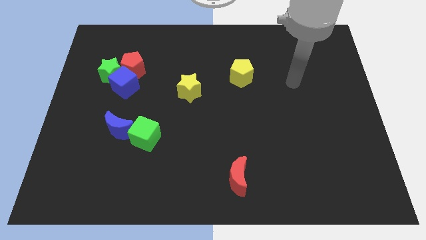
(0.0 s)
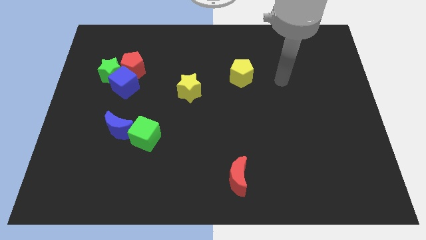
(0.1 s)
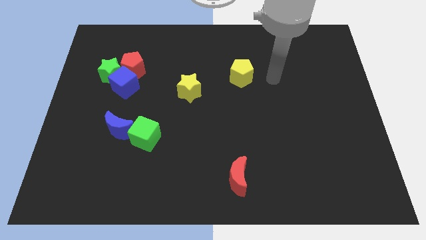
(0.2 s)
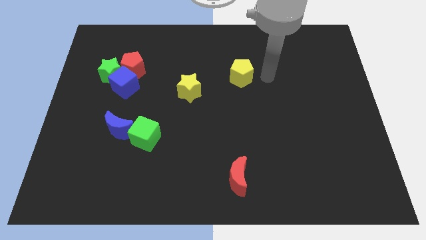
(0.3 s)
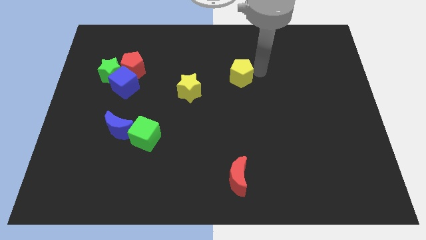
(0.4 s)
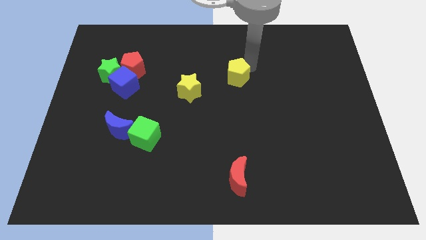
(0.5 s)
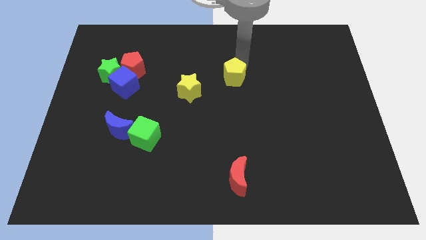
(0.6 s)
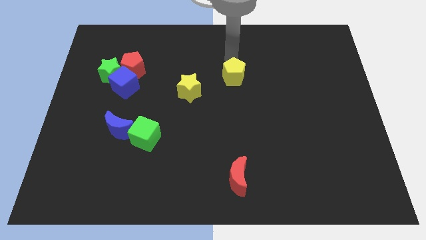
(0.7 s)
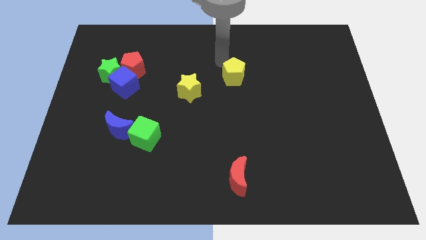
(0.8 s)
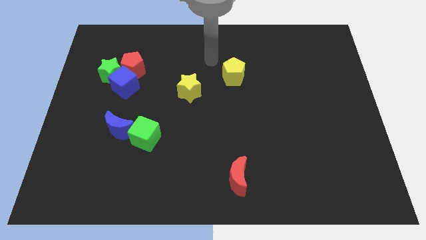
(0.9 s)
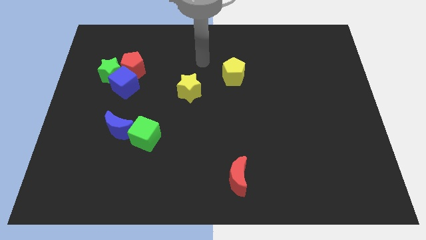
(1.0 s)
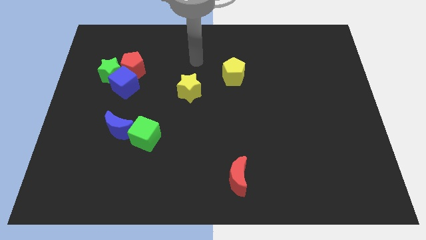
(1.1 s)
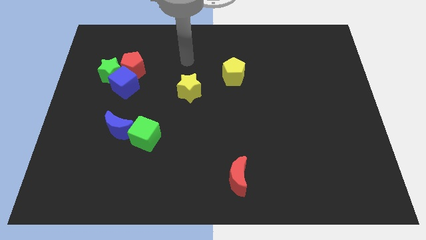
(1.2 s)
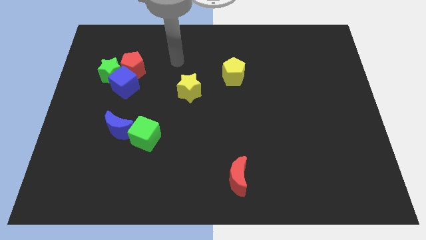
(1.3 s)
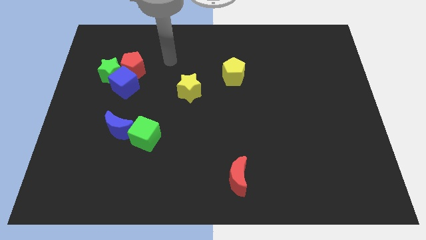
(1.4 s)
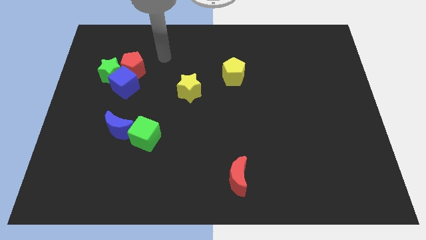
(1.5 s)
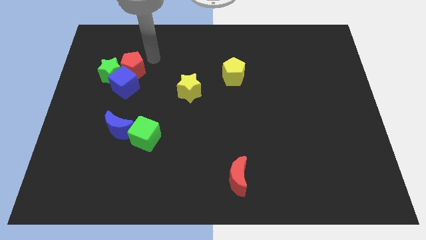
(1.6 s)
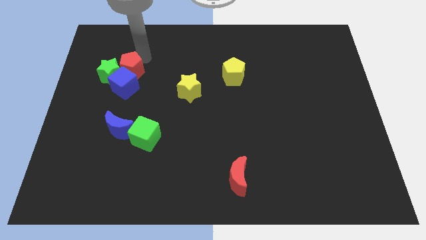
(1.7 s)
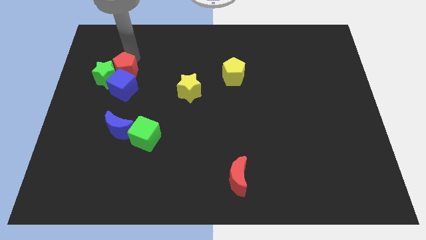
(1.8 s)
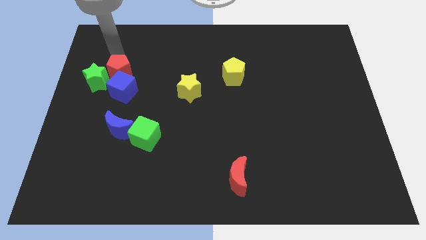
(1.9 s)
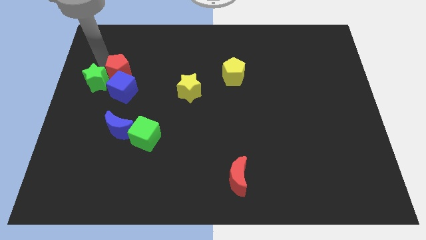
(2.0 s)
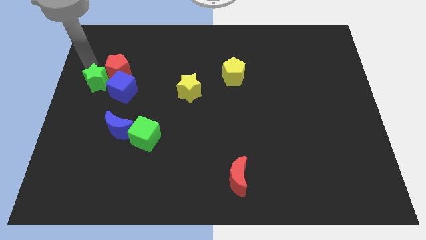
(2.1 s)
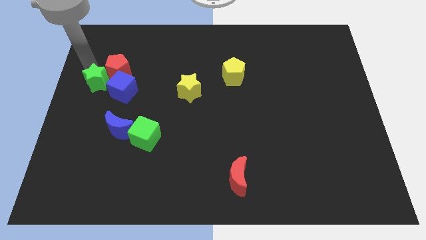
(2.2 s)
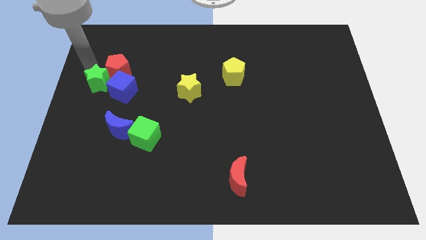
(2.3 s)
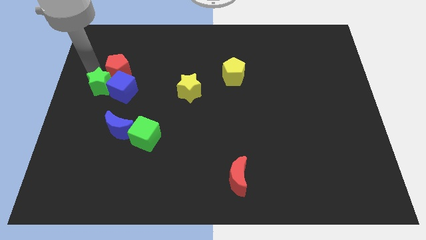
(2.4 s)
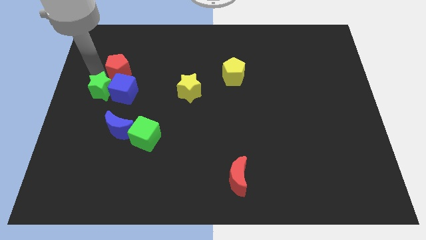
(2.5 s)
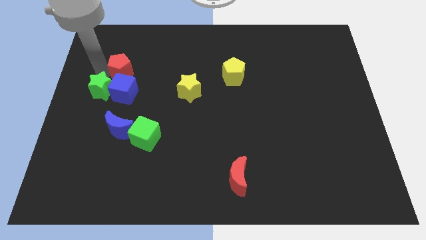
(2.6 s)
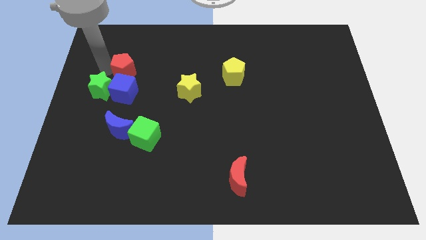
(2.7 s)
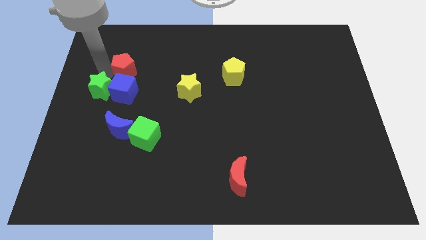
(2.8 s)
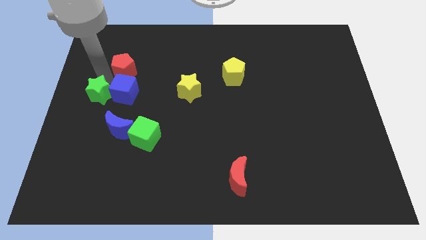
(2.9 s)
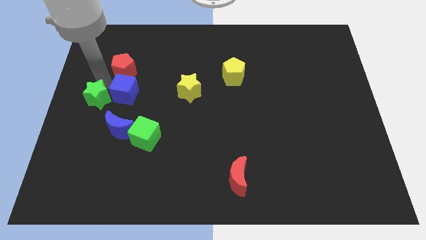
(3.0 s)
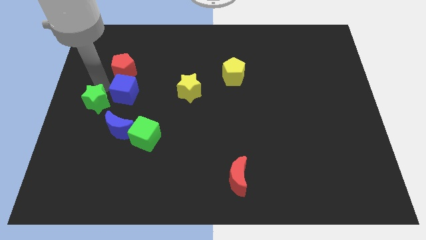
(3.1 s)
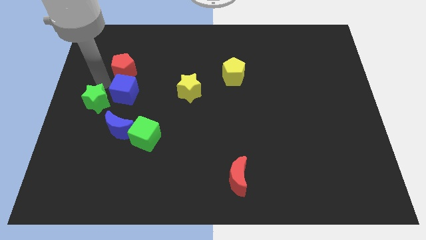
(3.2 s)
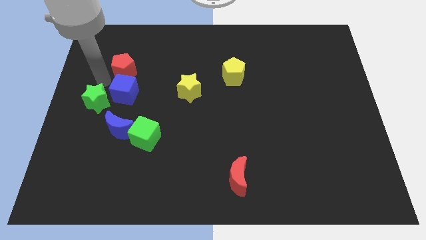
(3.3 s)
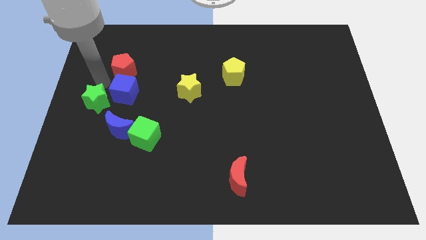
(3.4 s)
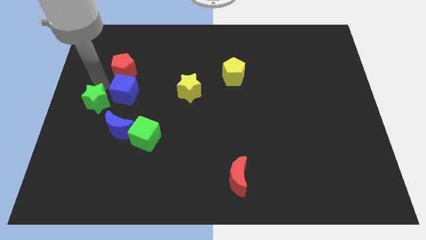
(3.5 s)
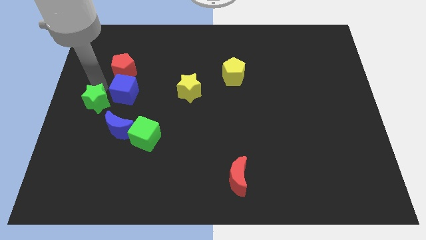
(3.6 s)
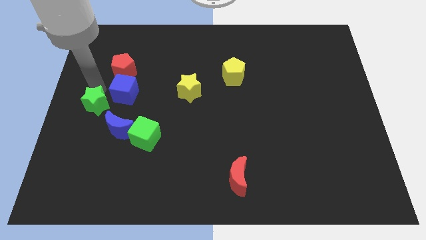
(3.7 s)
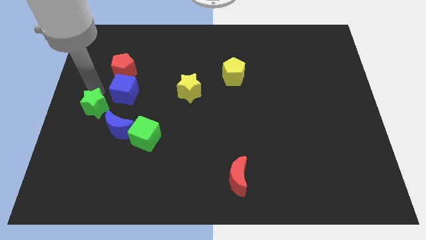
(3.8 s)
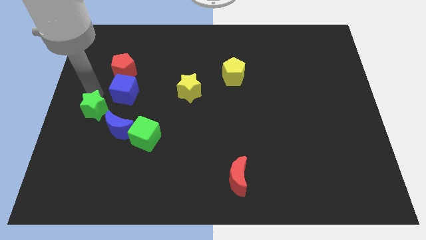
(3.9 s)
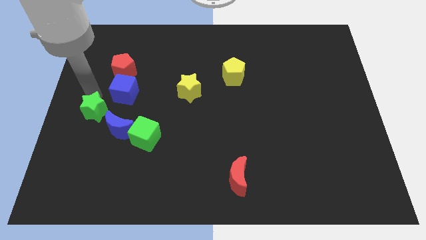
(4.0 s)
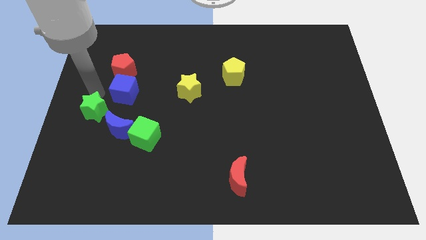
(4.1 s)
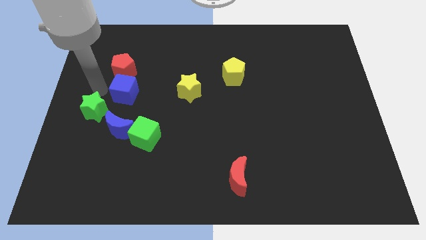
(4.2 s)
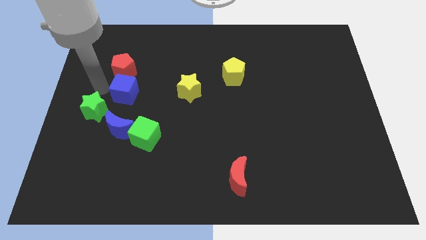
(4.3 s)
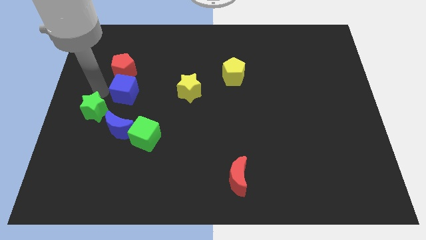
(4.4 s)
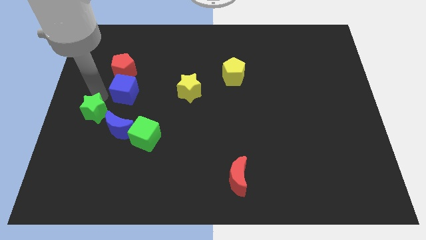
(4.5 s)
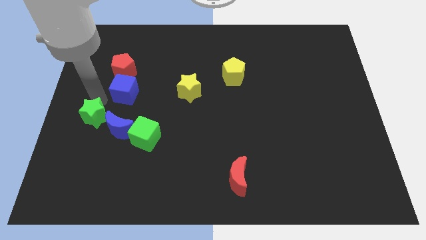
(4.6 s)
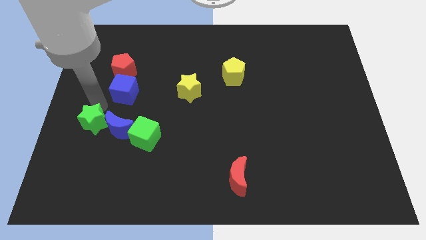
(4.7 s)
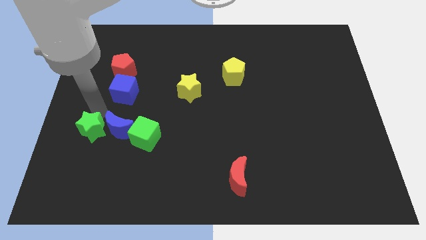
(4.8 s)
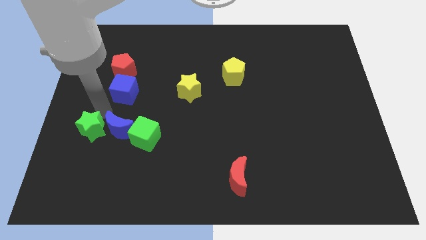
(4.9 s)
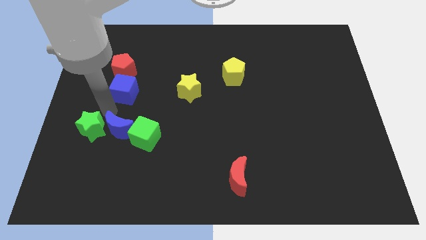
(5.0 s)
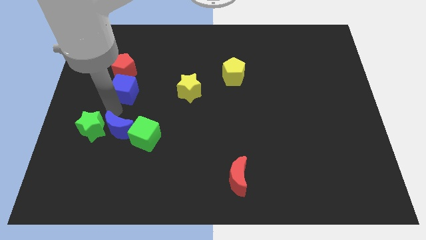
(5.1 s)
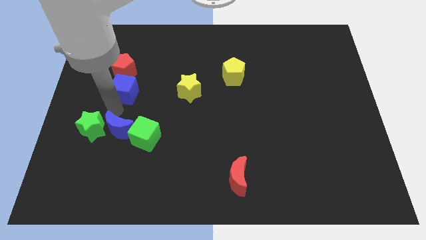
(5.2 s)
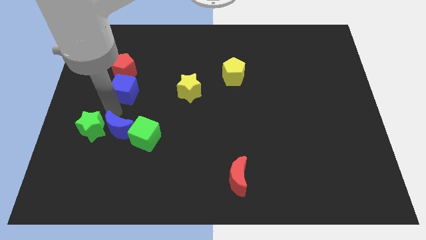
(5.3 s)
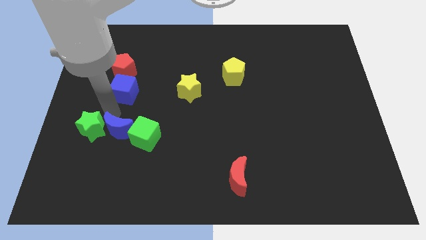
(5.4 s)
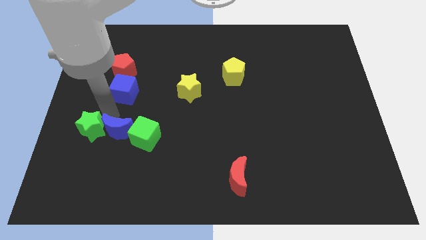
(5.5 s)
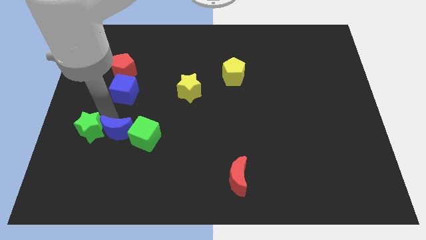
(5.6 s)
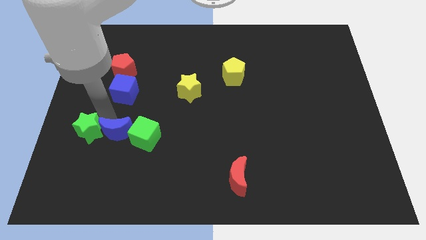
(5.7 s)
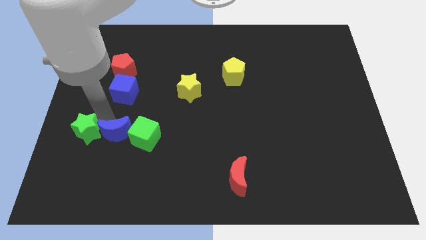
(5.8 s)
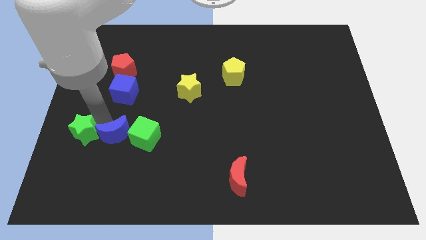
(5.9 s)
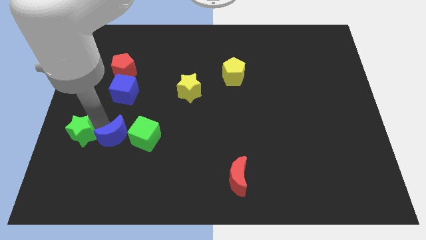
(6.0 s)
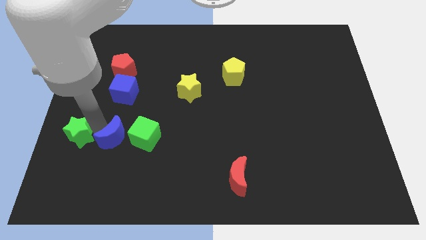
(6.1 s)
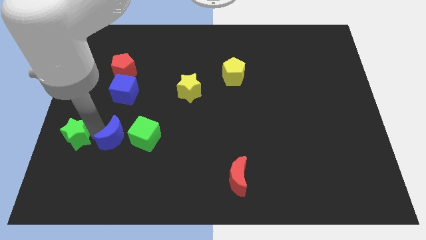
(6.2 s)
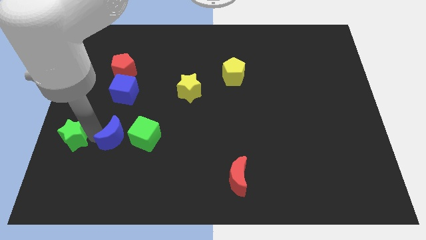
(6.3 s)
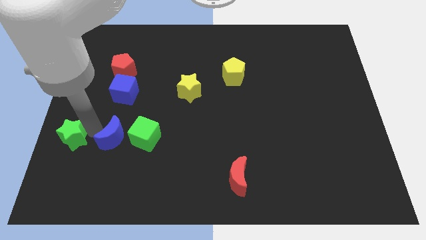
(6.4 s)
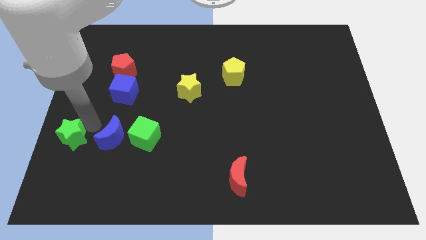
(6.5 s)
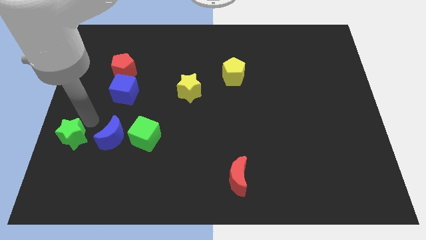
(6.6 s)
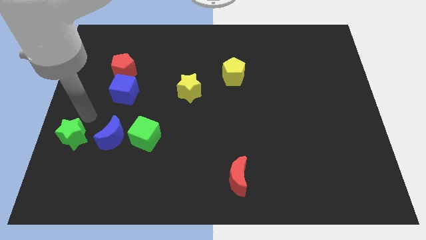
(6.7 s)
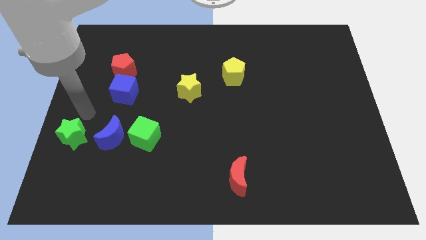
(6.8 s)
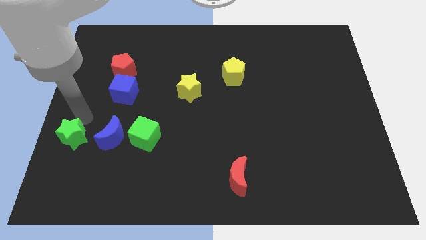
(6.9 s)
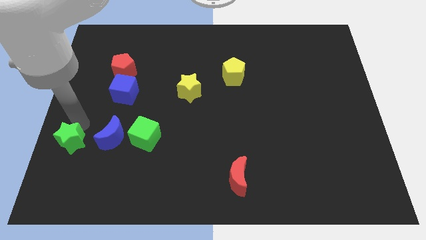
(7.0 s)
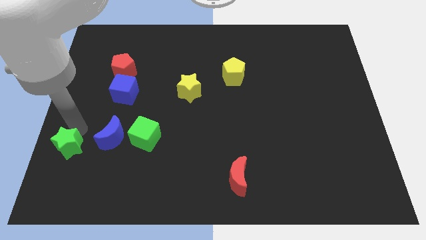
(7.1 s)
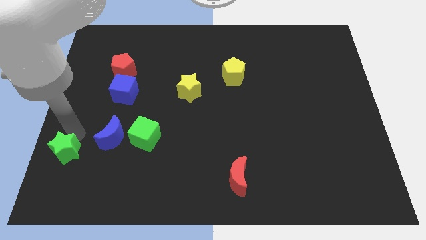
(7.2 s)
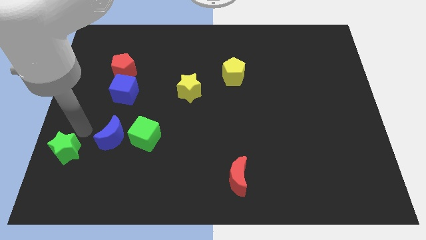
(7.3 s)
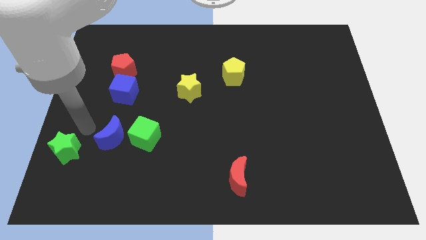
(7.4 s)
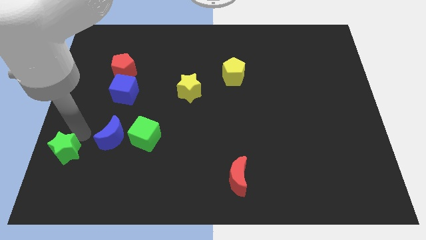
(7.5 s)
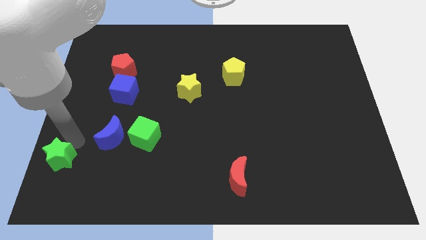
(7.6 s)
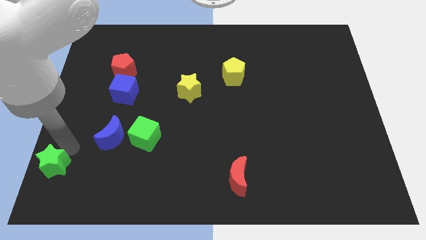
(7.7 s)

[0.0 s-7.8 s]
move the green star to the bottom left

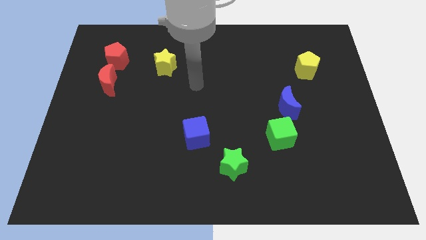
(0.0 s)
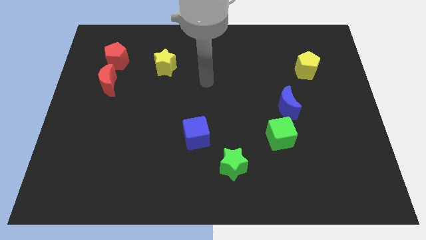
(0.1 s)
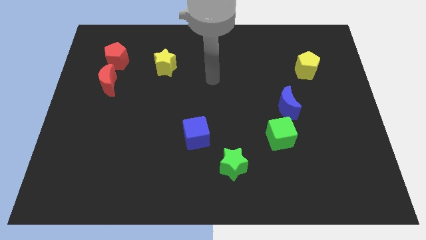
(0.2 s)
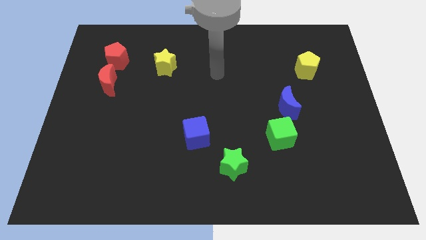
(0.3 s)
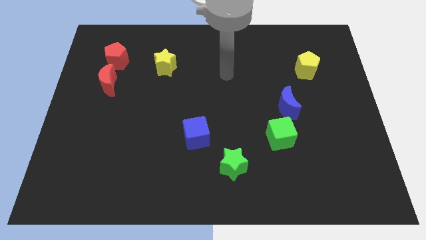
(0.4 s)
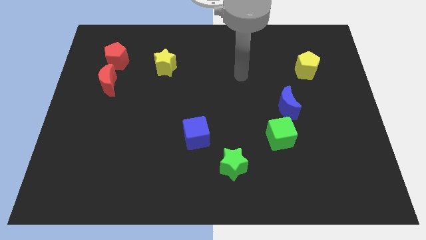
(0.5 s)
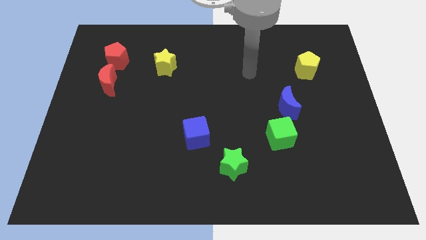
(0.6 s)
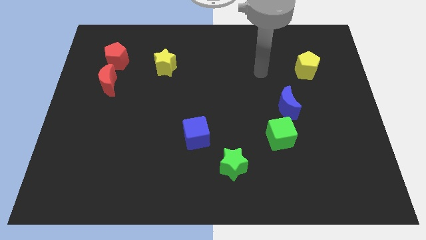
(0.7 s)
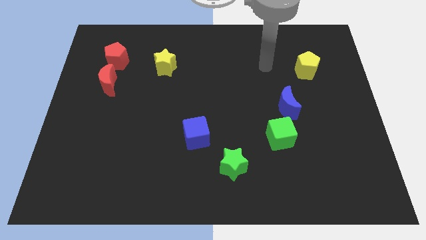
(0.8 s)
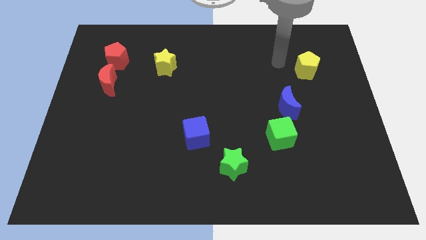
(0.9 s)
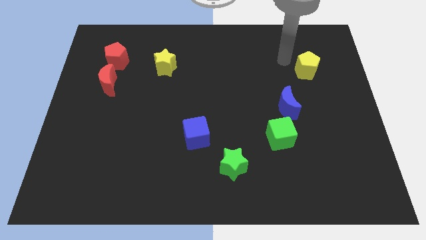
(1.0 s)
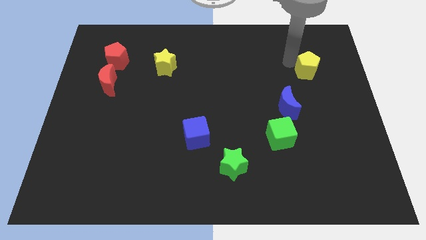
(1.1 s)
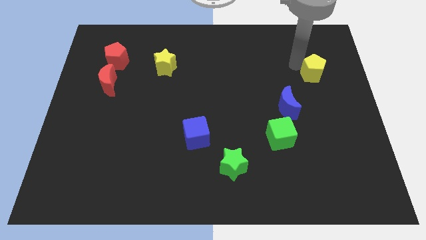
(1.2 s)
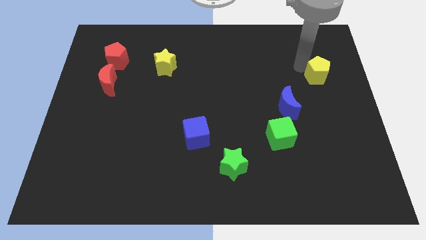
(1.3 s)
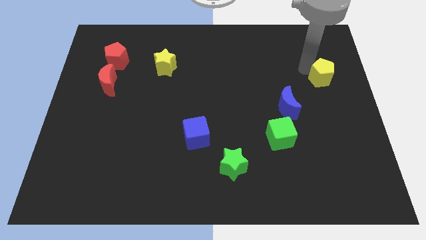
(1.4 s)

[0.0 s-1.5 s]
slide the yellow pentagon to the center right
